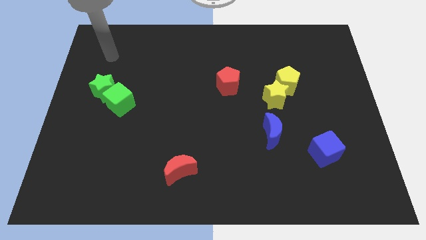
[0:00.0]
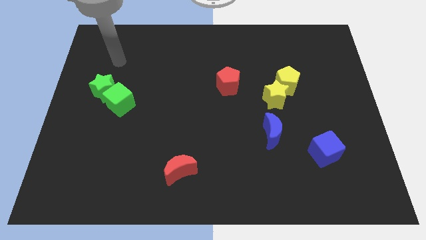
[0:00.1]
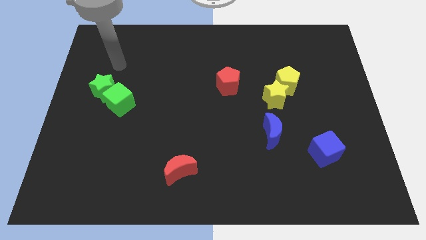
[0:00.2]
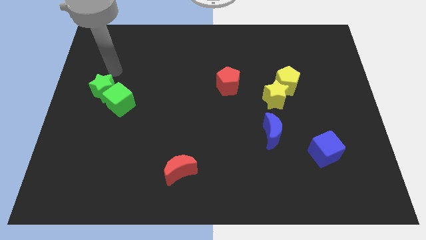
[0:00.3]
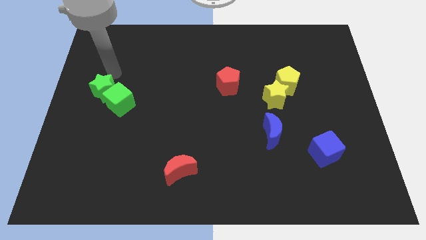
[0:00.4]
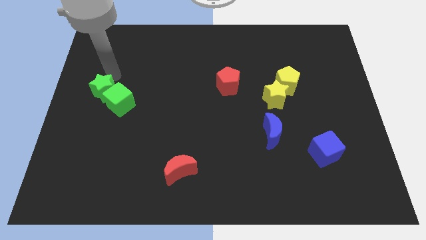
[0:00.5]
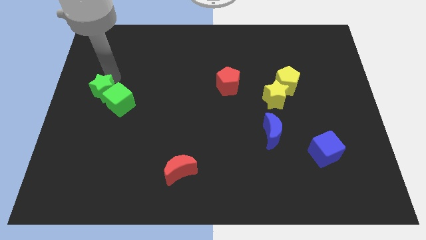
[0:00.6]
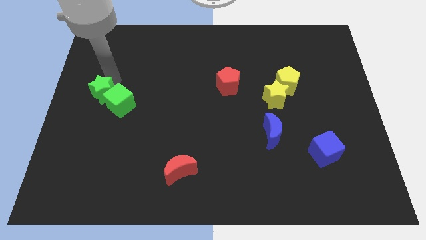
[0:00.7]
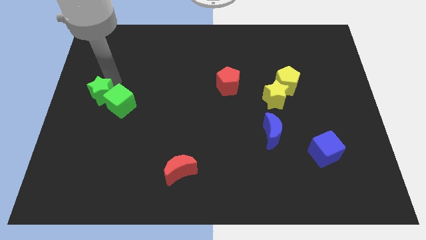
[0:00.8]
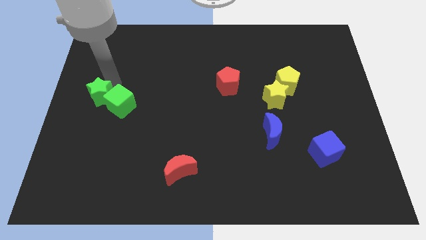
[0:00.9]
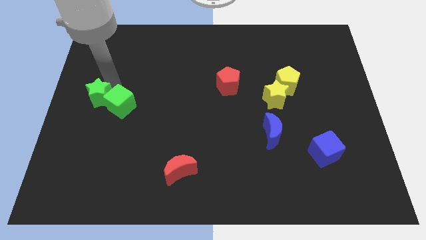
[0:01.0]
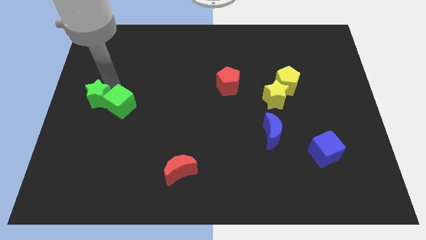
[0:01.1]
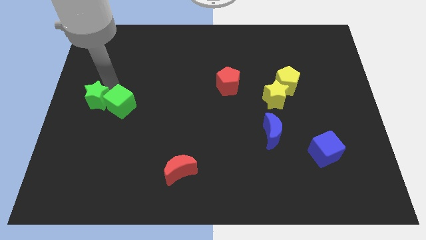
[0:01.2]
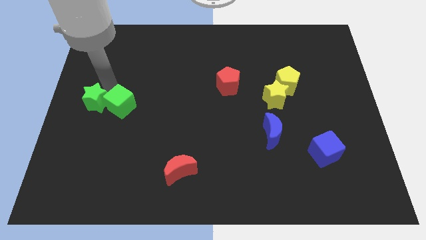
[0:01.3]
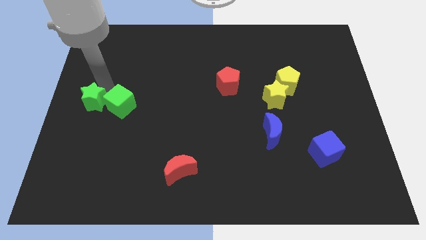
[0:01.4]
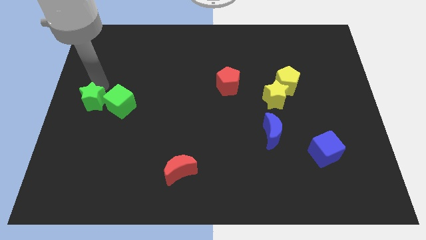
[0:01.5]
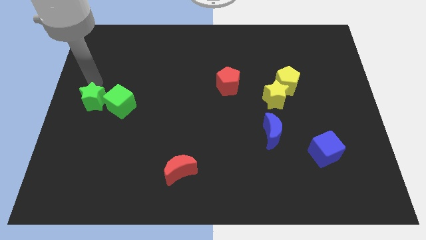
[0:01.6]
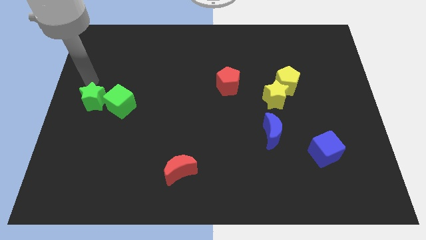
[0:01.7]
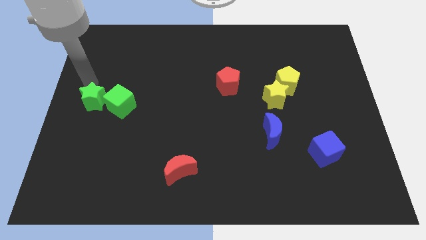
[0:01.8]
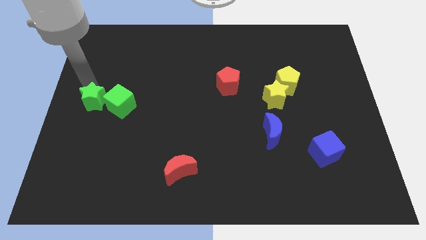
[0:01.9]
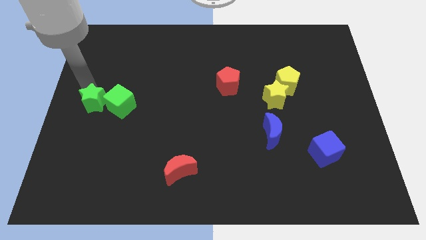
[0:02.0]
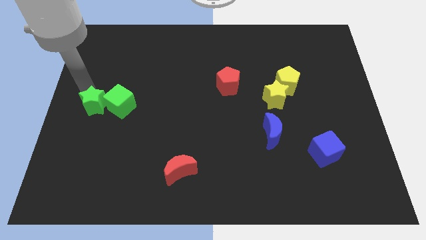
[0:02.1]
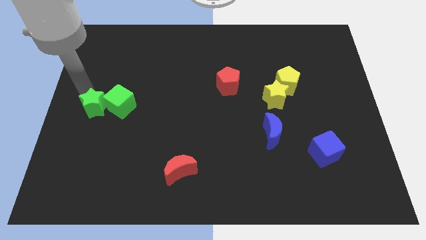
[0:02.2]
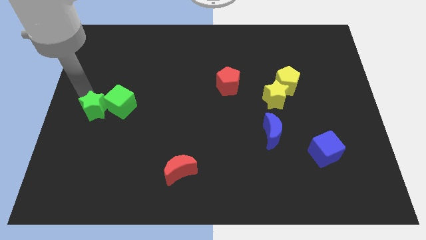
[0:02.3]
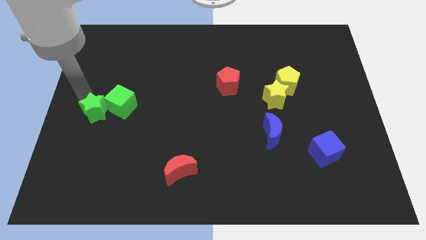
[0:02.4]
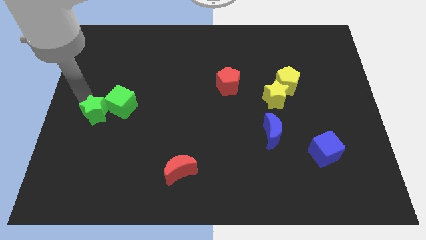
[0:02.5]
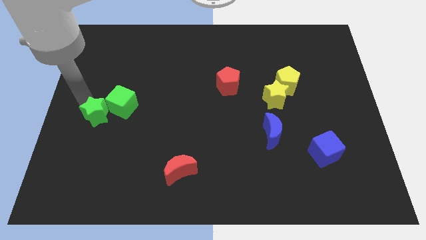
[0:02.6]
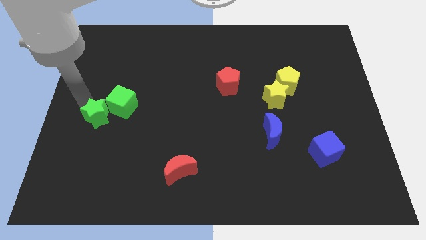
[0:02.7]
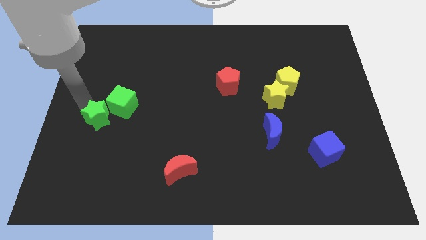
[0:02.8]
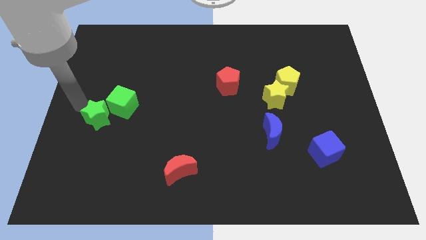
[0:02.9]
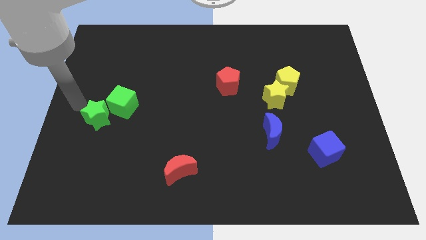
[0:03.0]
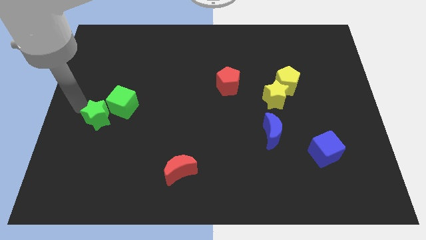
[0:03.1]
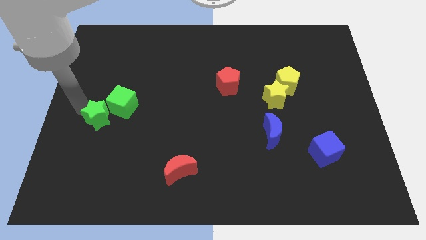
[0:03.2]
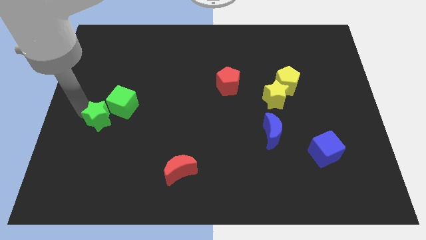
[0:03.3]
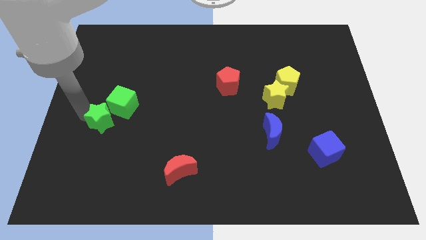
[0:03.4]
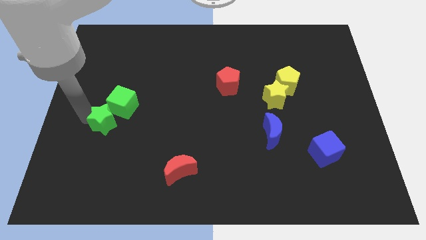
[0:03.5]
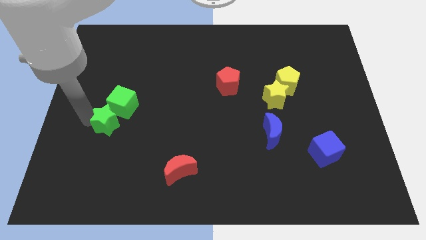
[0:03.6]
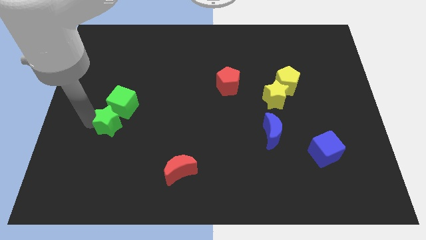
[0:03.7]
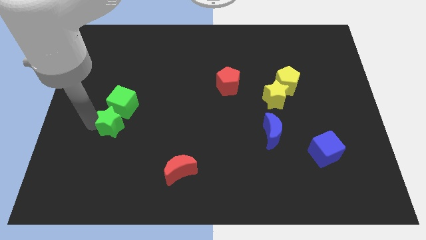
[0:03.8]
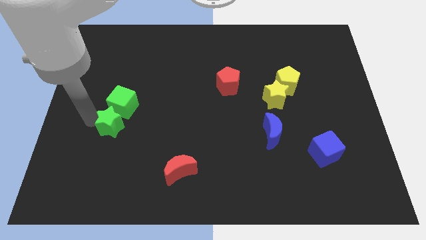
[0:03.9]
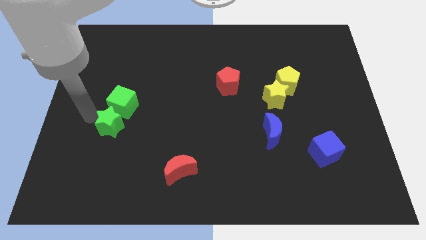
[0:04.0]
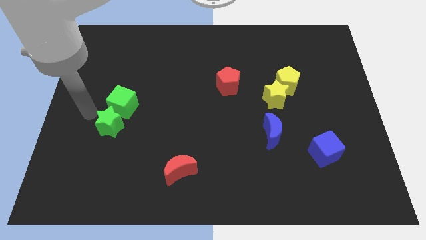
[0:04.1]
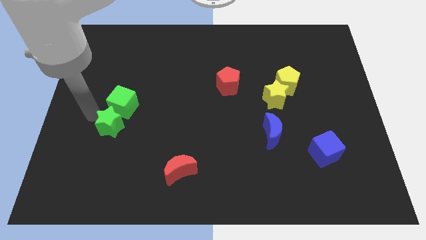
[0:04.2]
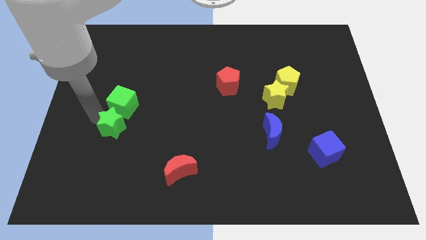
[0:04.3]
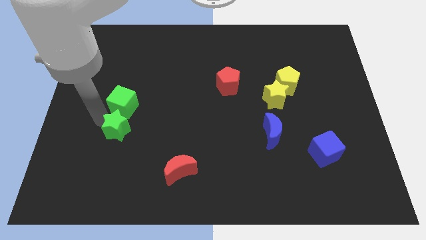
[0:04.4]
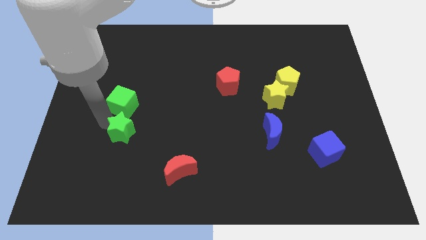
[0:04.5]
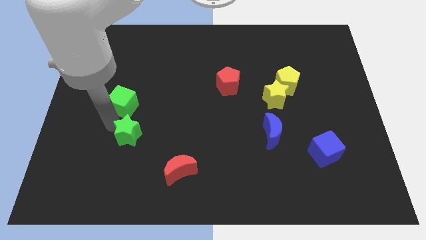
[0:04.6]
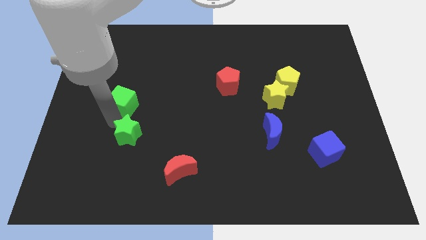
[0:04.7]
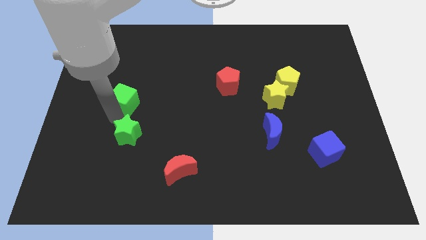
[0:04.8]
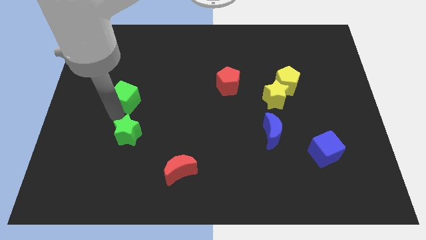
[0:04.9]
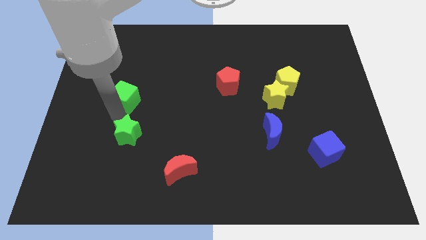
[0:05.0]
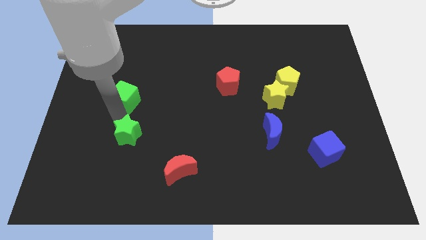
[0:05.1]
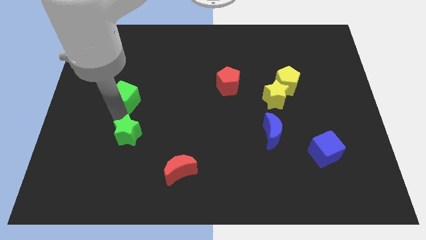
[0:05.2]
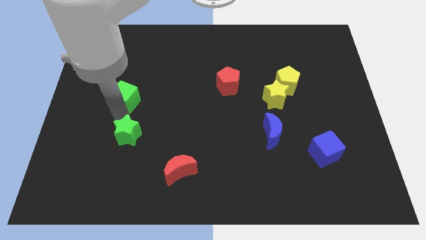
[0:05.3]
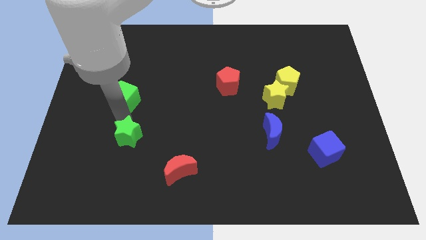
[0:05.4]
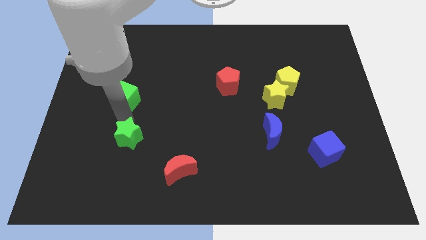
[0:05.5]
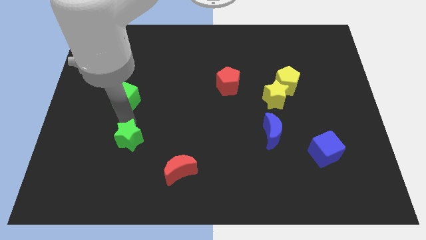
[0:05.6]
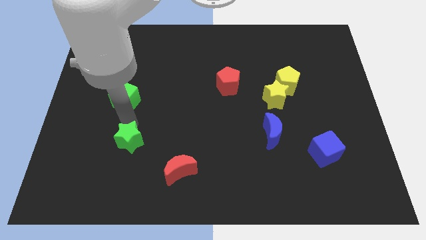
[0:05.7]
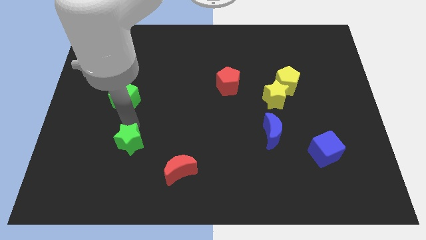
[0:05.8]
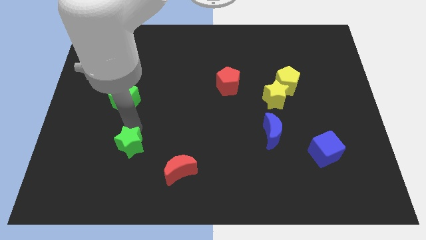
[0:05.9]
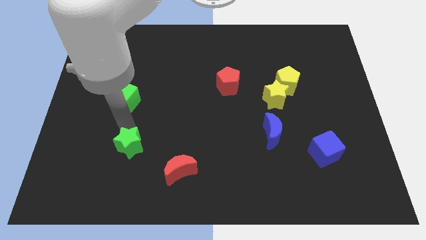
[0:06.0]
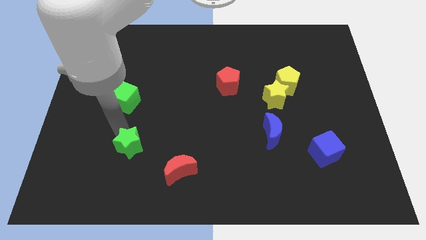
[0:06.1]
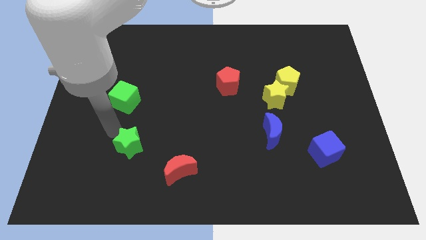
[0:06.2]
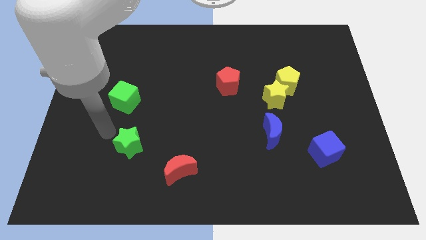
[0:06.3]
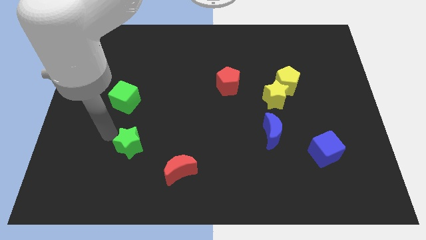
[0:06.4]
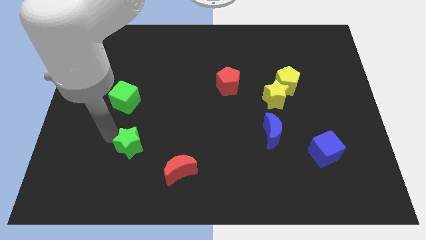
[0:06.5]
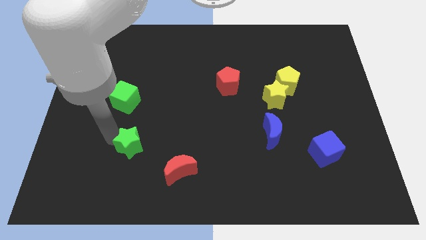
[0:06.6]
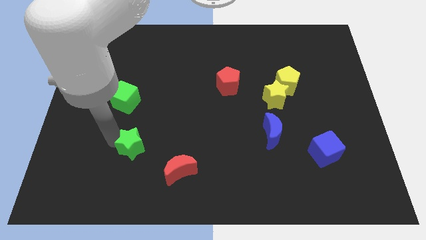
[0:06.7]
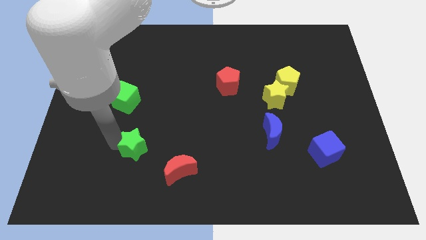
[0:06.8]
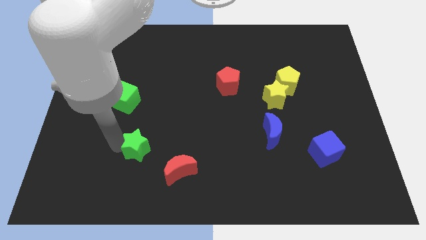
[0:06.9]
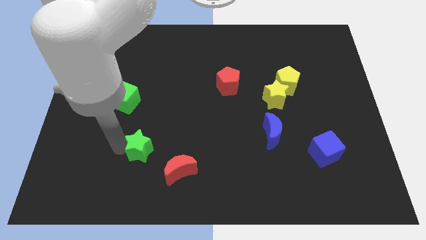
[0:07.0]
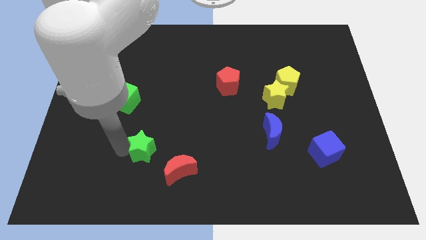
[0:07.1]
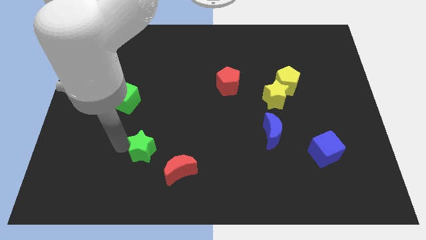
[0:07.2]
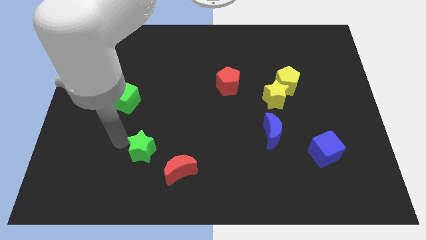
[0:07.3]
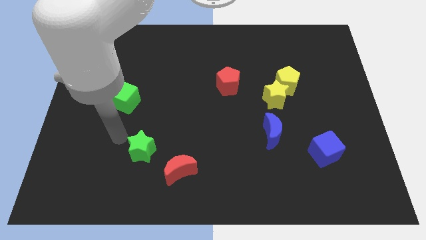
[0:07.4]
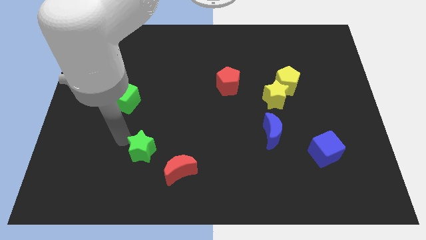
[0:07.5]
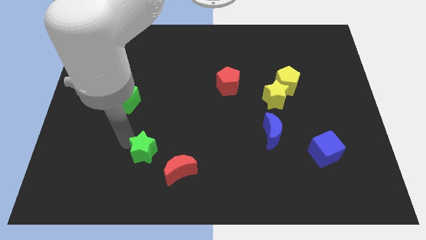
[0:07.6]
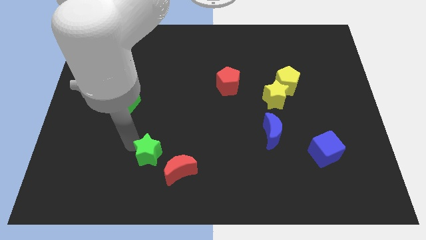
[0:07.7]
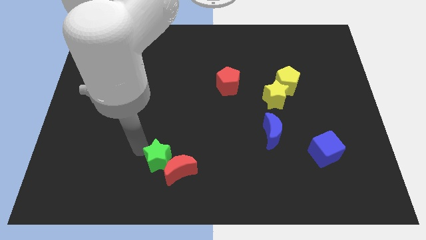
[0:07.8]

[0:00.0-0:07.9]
move the green star close to the red moon
